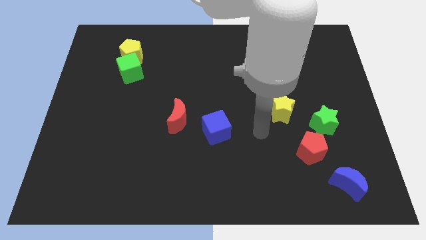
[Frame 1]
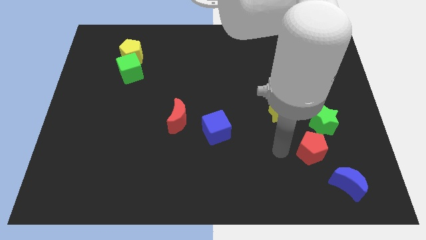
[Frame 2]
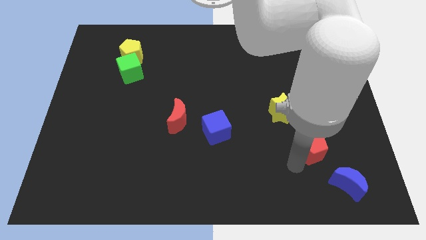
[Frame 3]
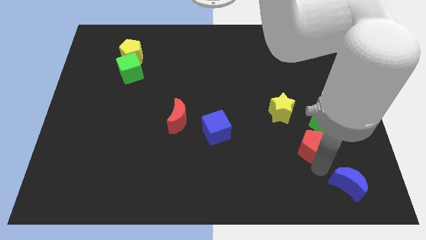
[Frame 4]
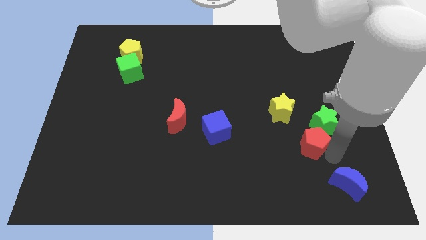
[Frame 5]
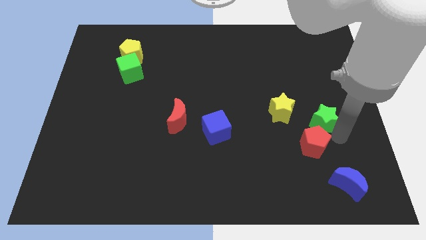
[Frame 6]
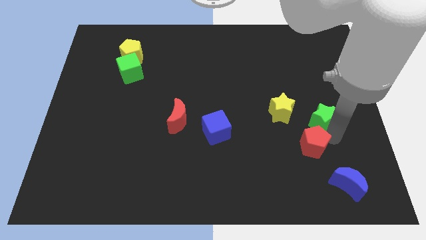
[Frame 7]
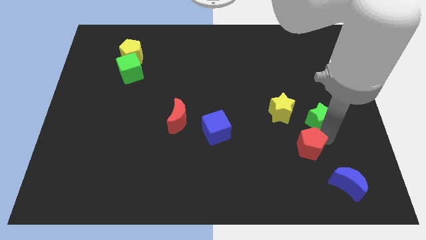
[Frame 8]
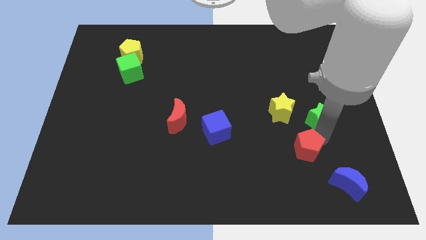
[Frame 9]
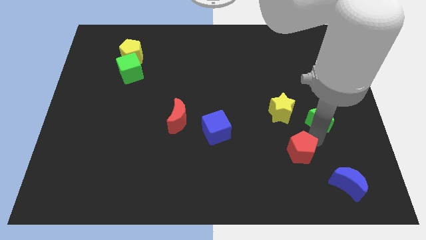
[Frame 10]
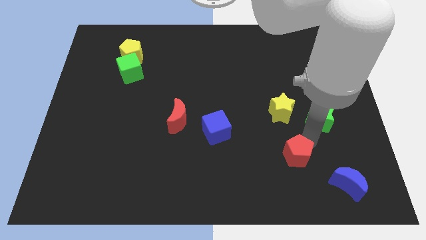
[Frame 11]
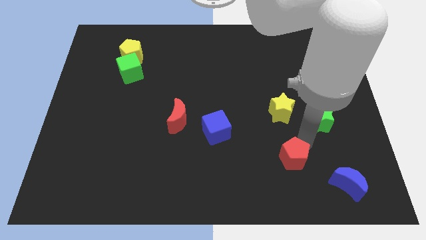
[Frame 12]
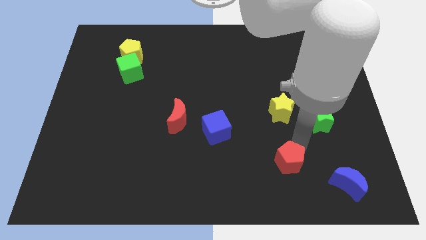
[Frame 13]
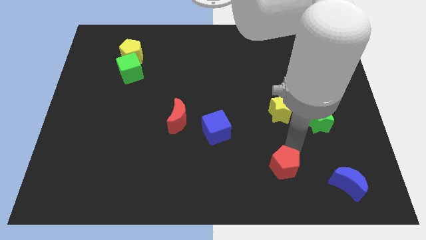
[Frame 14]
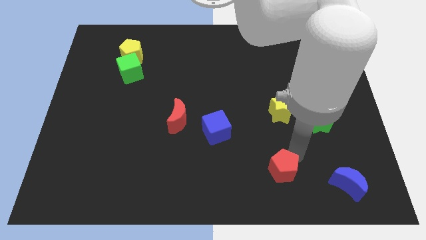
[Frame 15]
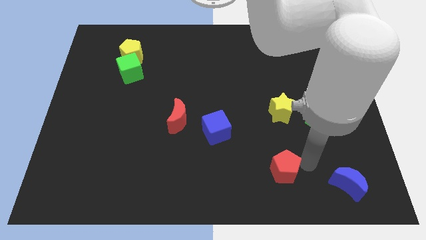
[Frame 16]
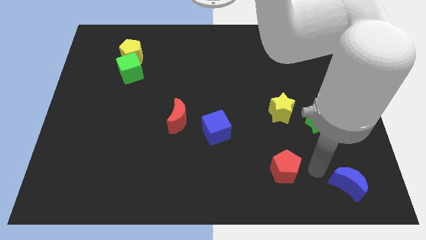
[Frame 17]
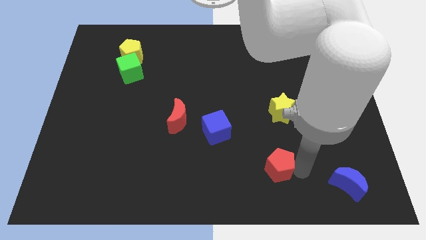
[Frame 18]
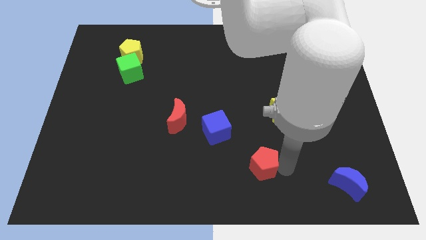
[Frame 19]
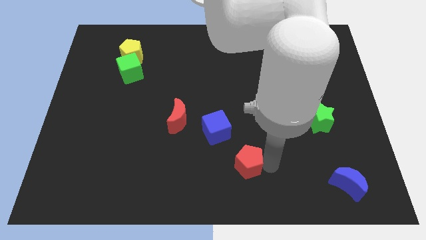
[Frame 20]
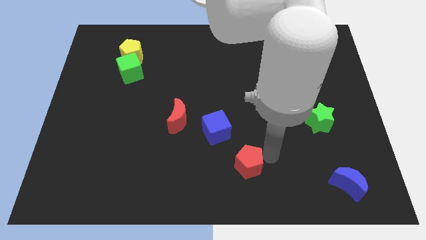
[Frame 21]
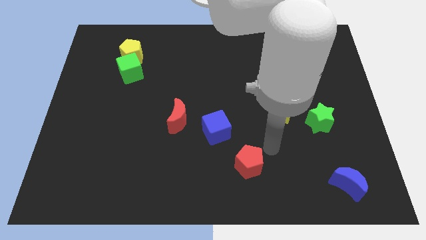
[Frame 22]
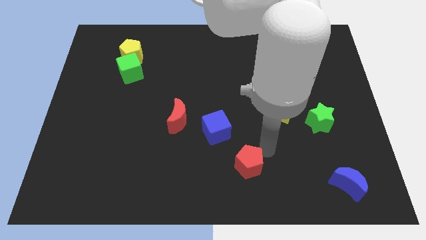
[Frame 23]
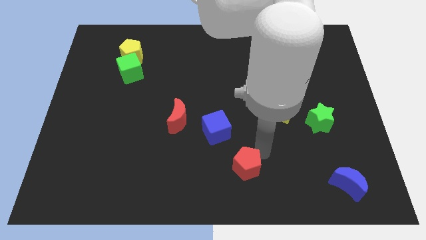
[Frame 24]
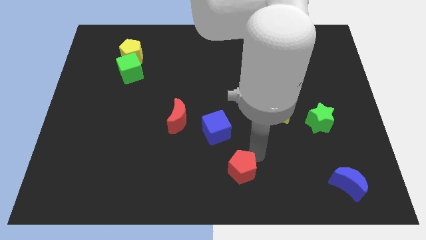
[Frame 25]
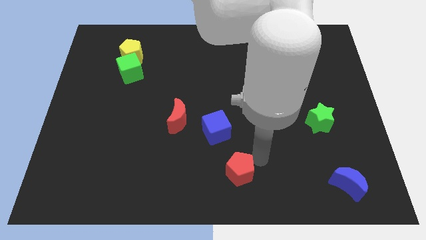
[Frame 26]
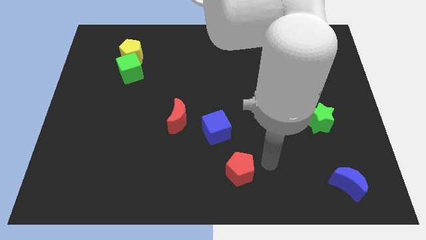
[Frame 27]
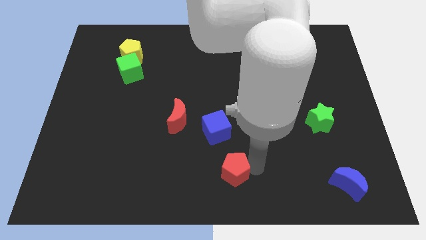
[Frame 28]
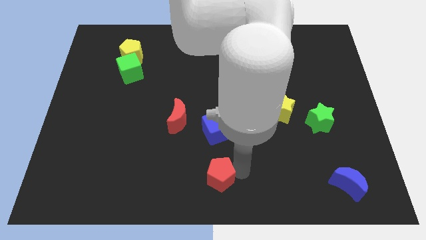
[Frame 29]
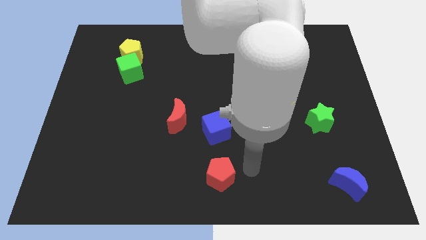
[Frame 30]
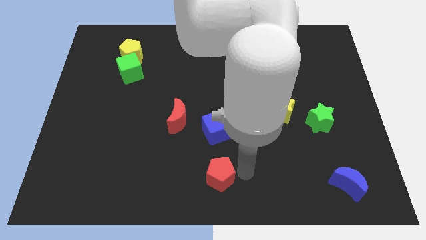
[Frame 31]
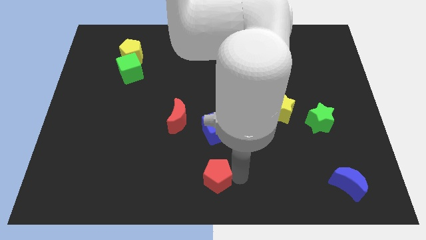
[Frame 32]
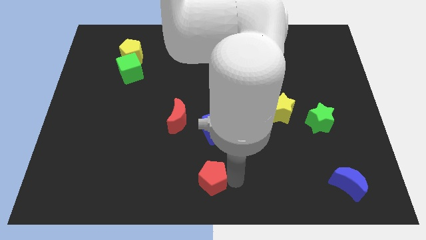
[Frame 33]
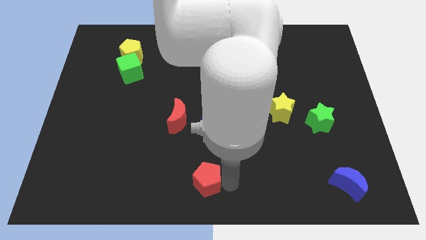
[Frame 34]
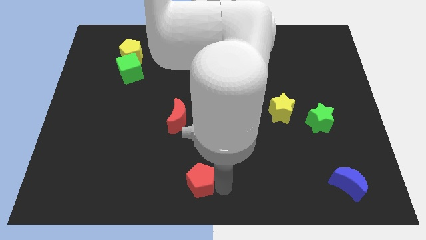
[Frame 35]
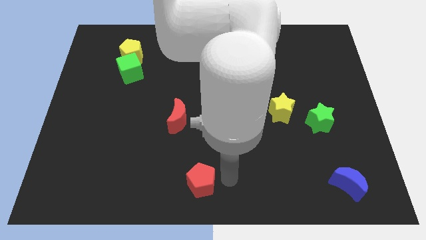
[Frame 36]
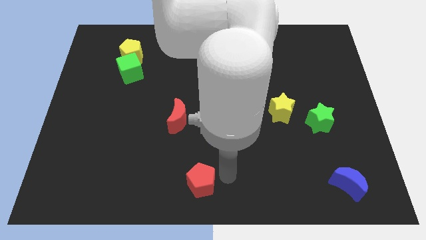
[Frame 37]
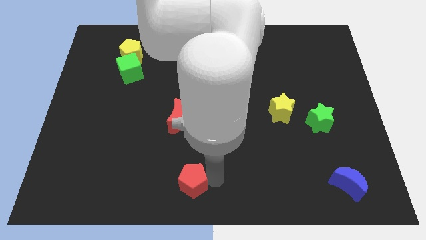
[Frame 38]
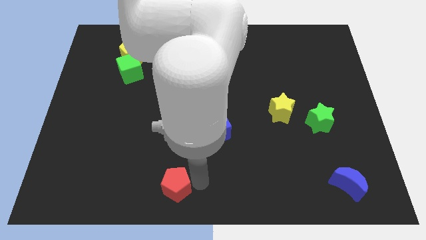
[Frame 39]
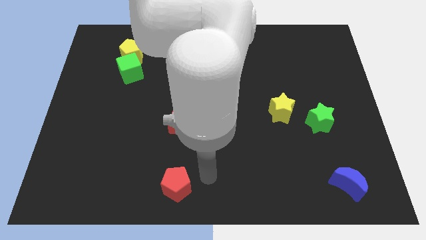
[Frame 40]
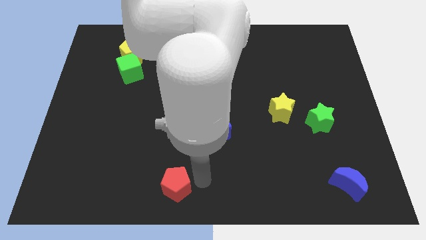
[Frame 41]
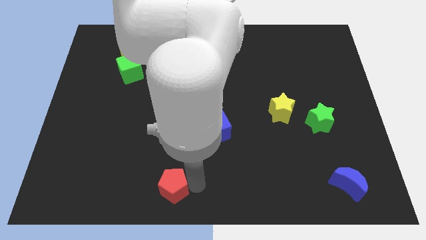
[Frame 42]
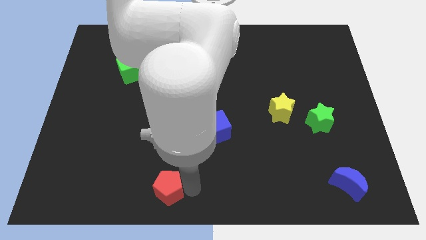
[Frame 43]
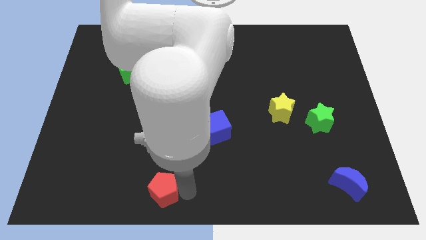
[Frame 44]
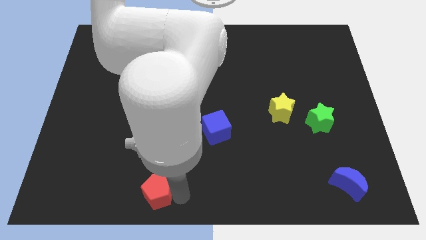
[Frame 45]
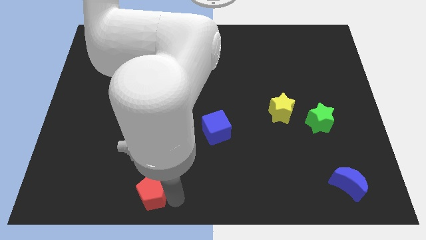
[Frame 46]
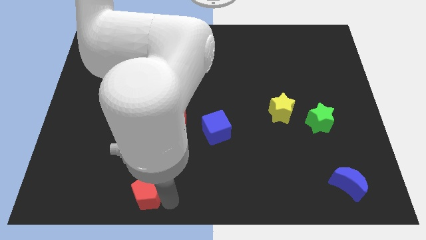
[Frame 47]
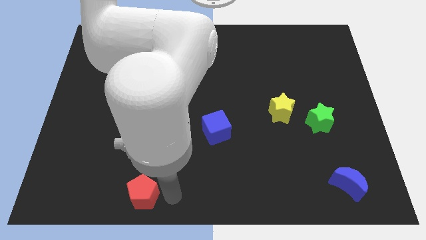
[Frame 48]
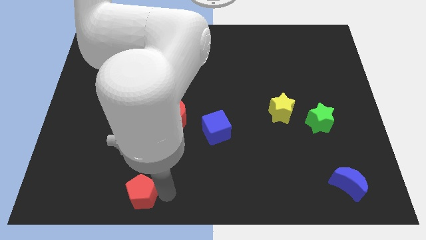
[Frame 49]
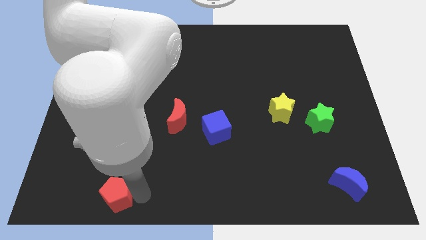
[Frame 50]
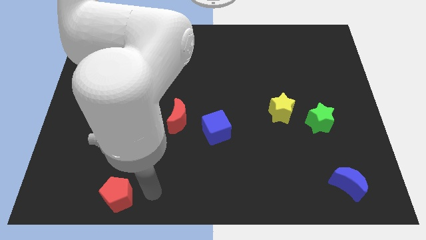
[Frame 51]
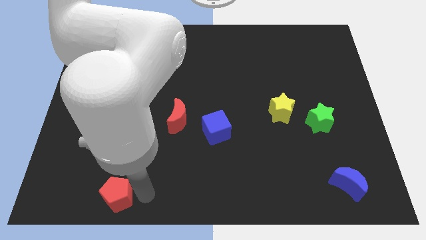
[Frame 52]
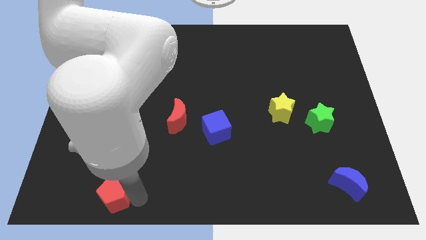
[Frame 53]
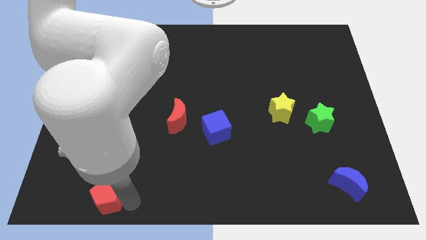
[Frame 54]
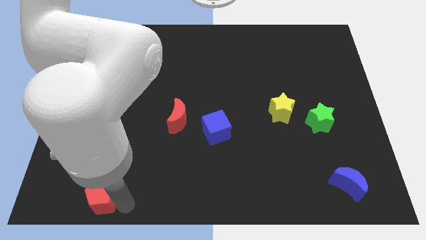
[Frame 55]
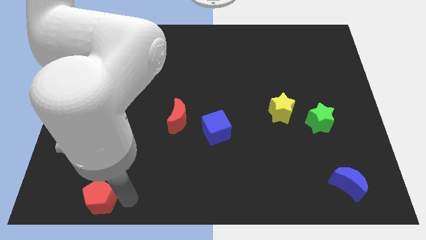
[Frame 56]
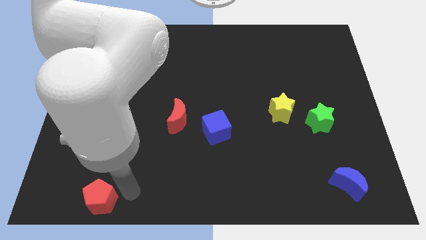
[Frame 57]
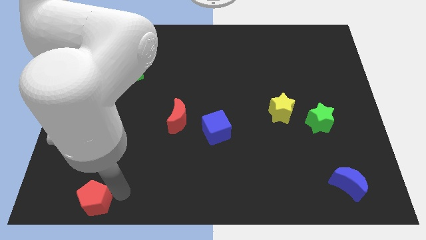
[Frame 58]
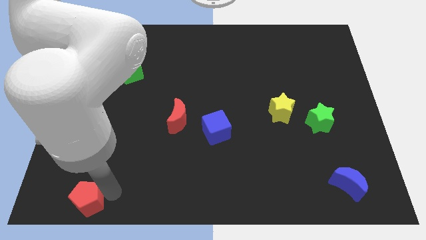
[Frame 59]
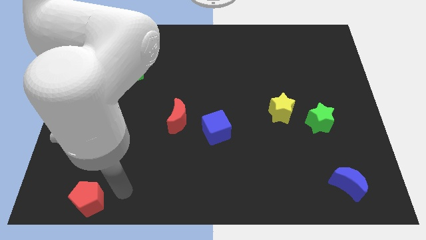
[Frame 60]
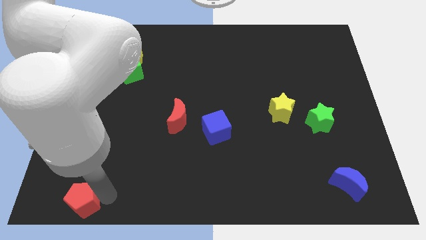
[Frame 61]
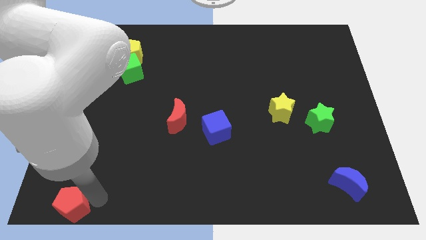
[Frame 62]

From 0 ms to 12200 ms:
put the red pentagon to the bottom left

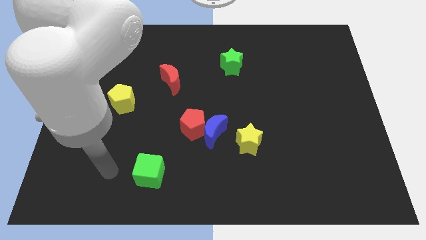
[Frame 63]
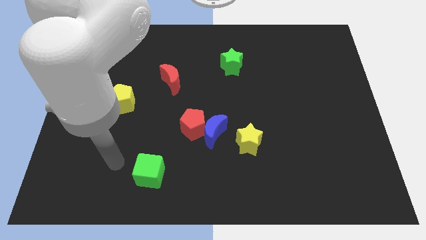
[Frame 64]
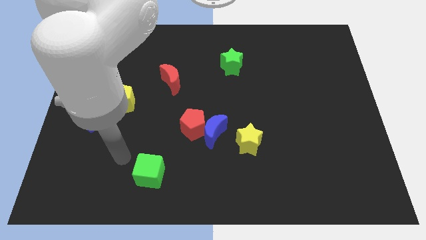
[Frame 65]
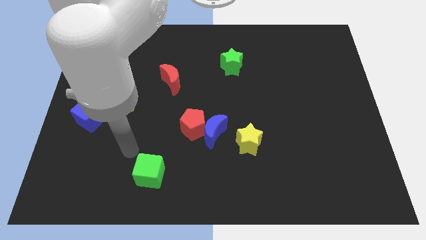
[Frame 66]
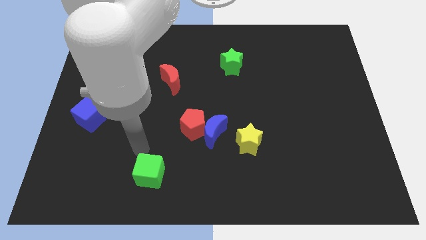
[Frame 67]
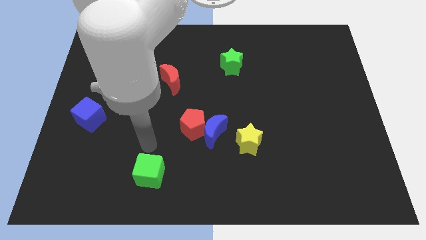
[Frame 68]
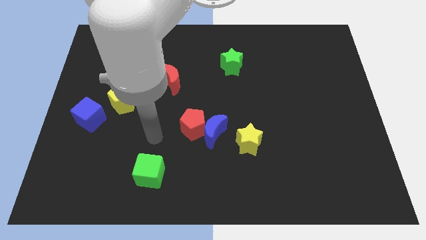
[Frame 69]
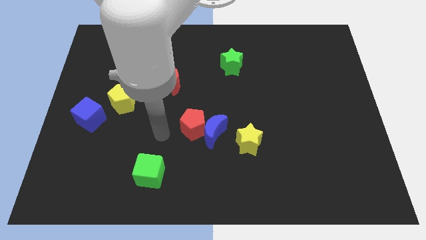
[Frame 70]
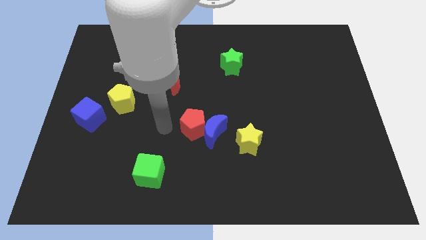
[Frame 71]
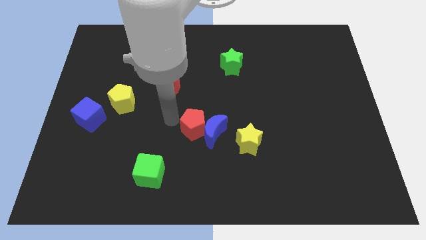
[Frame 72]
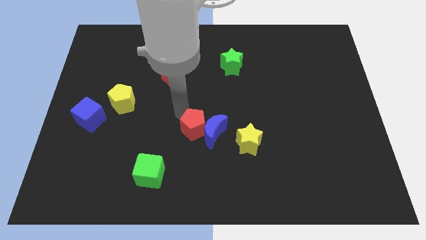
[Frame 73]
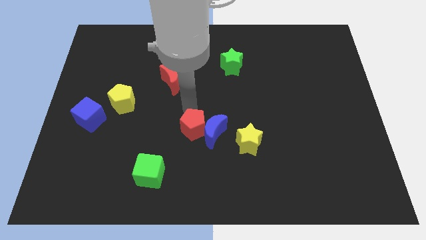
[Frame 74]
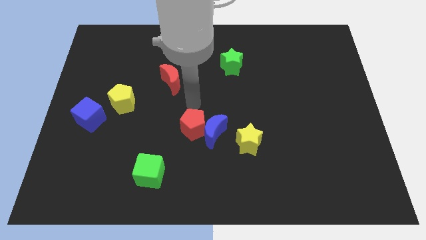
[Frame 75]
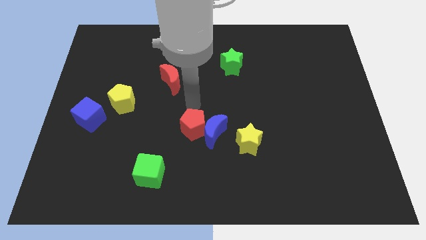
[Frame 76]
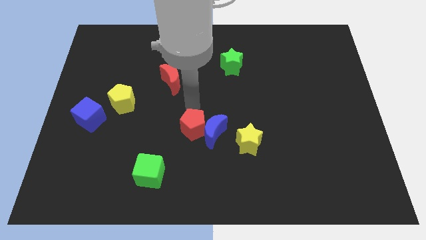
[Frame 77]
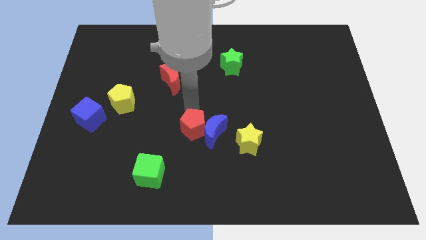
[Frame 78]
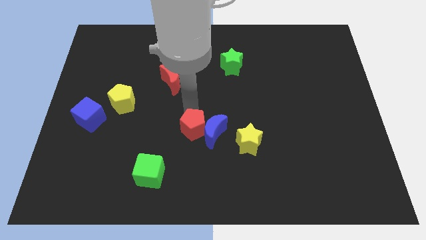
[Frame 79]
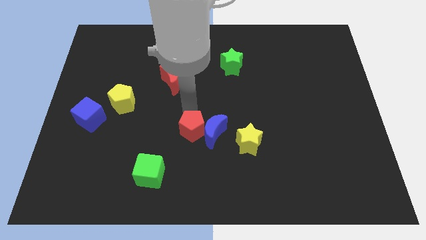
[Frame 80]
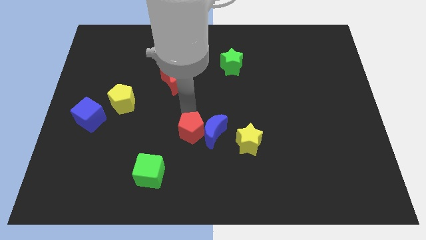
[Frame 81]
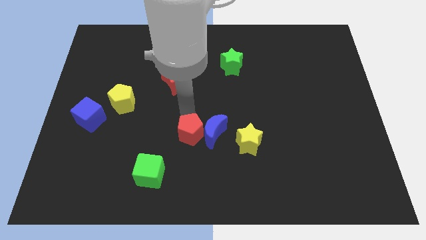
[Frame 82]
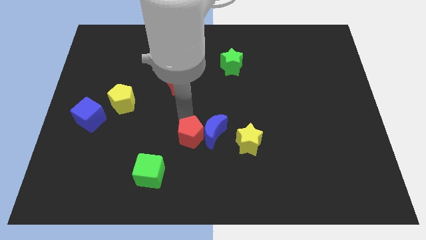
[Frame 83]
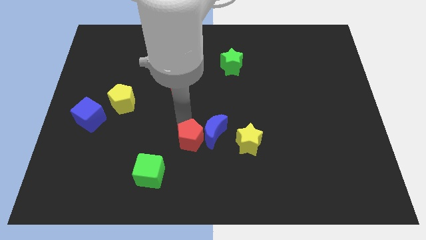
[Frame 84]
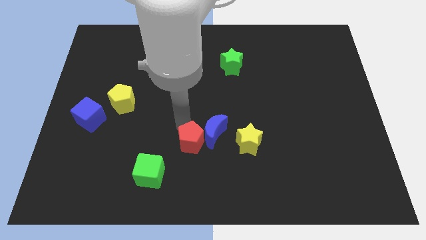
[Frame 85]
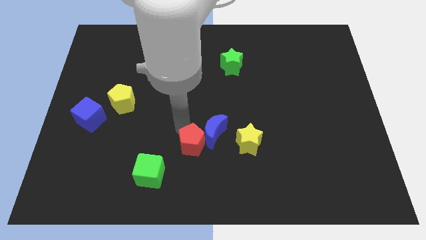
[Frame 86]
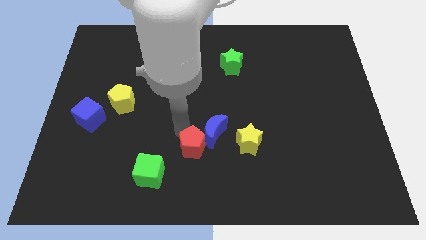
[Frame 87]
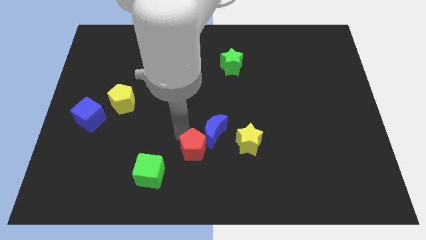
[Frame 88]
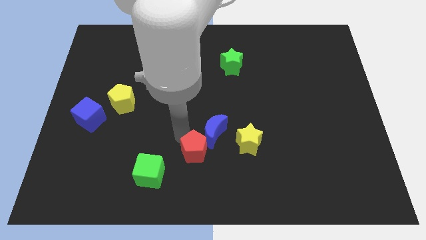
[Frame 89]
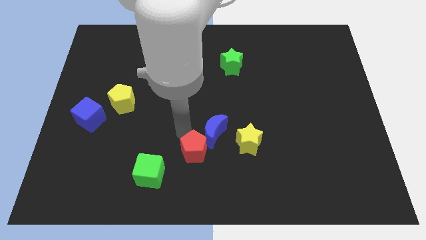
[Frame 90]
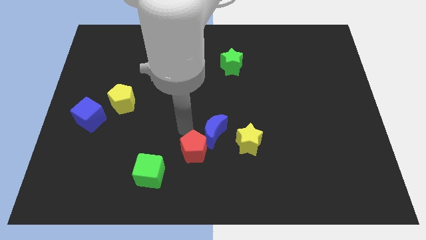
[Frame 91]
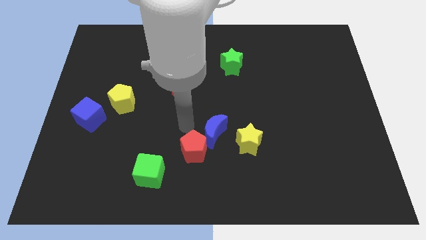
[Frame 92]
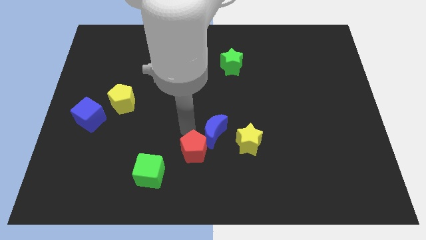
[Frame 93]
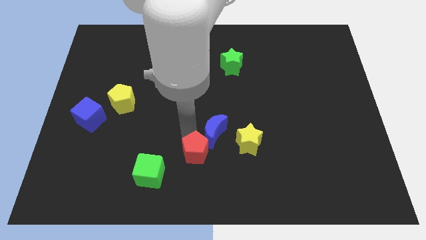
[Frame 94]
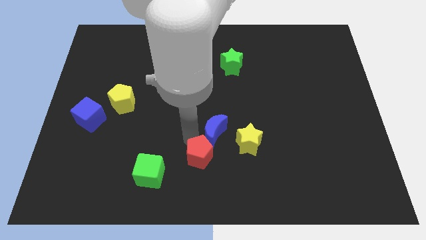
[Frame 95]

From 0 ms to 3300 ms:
push the red pentagon to the bottom
